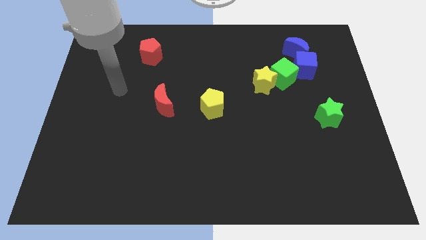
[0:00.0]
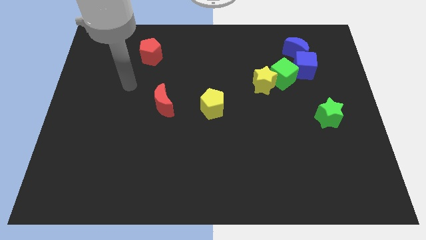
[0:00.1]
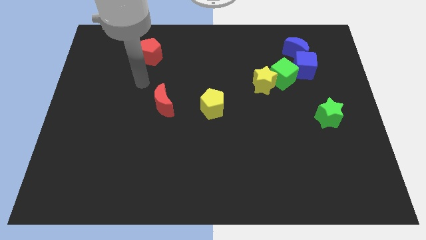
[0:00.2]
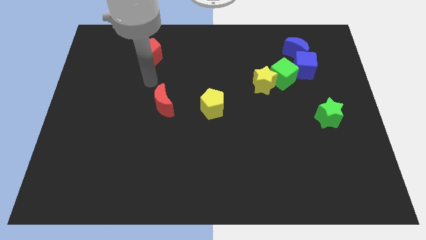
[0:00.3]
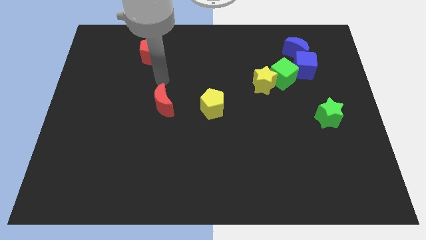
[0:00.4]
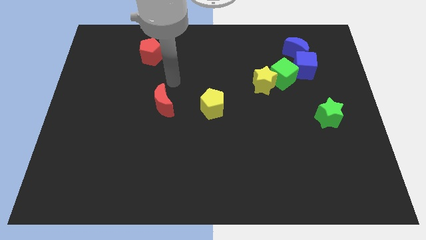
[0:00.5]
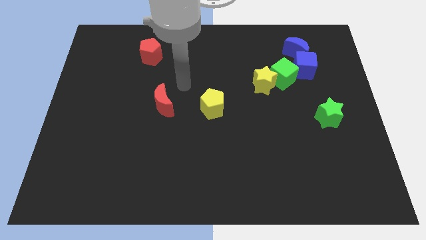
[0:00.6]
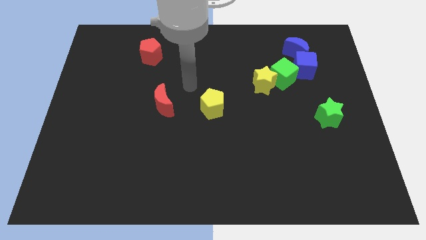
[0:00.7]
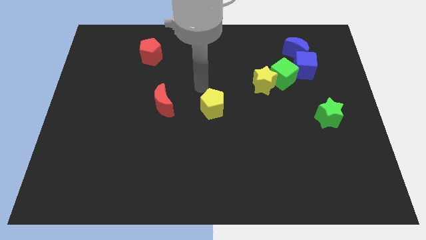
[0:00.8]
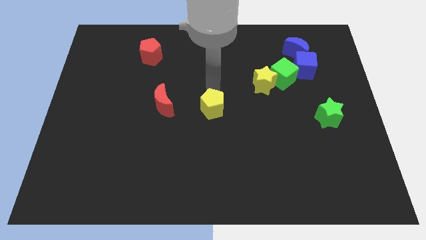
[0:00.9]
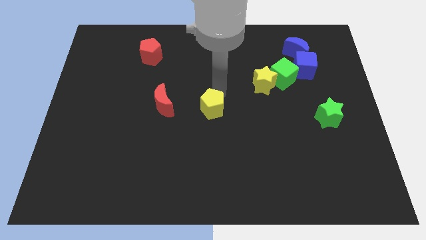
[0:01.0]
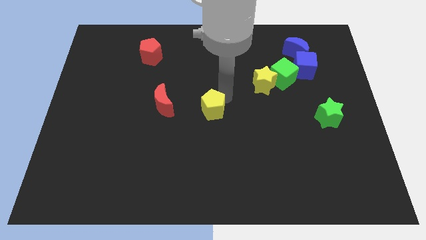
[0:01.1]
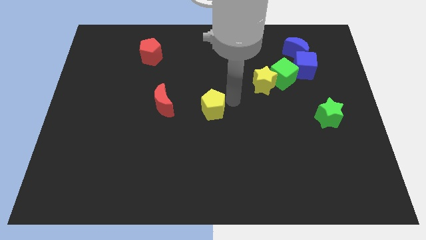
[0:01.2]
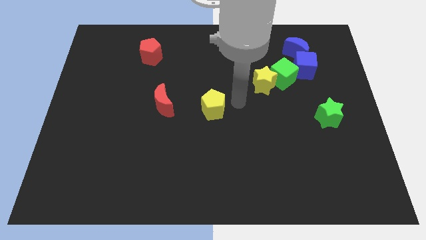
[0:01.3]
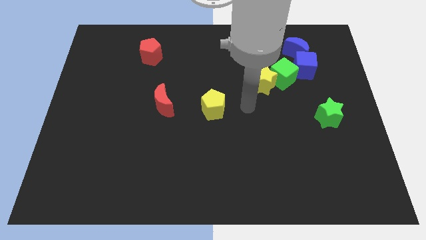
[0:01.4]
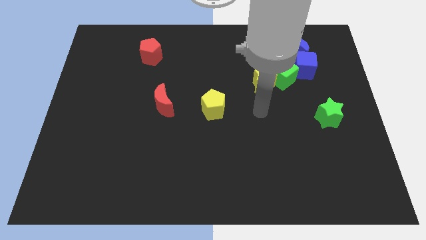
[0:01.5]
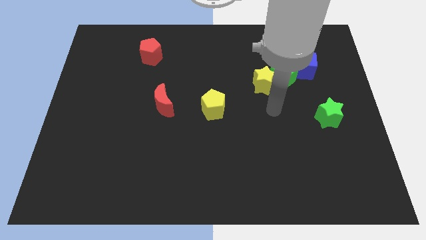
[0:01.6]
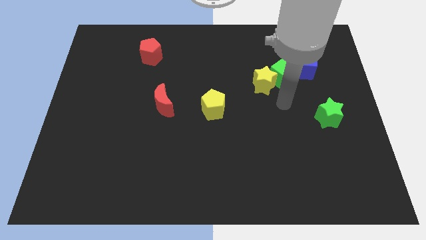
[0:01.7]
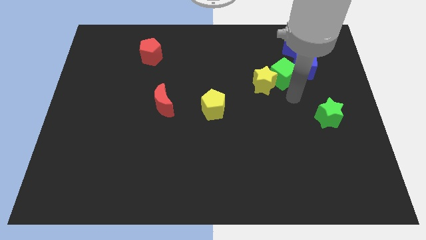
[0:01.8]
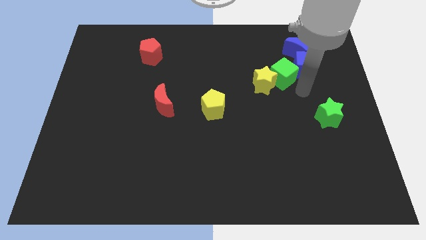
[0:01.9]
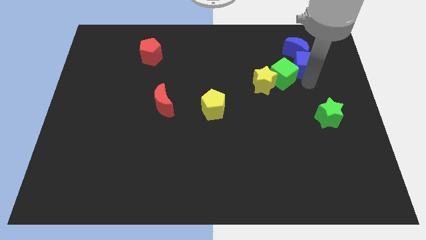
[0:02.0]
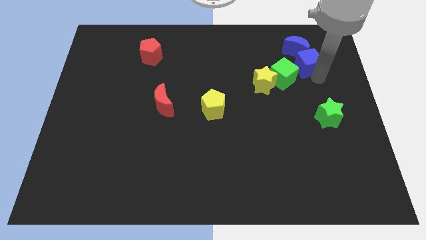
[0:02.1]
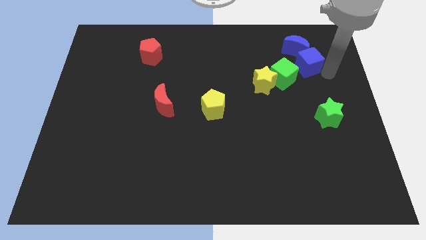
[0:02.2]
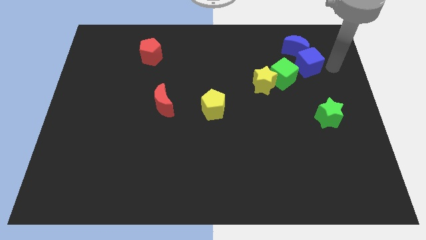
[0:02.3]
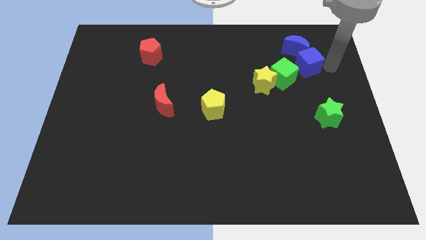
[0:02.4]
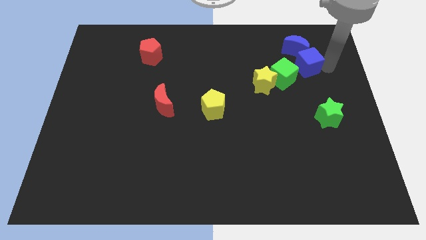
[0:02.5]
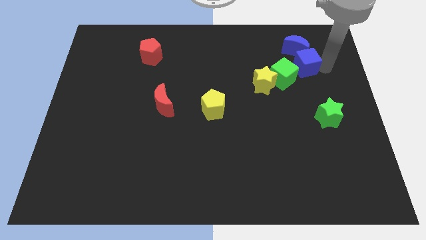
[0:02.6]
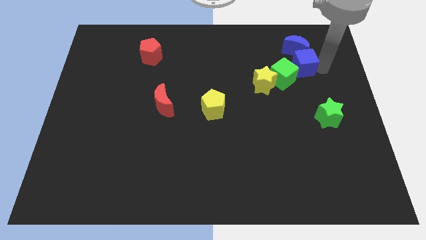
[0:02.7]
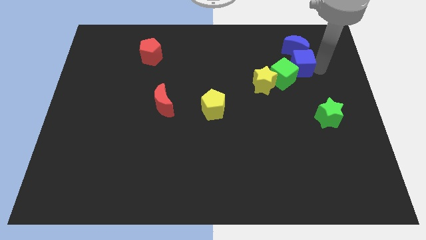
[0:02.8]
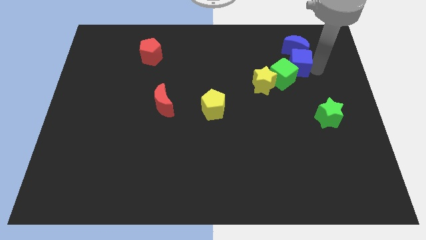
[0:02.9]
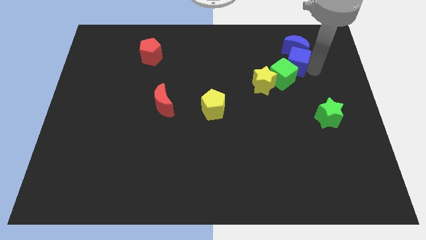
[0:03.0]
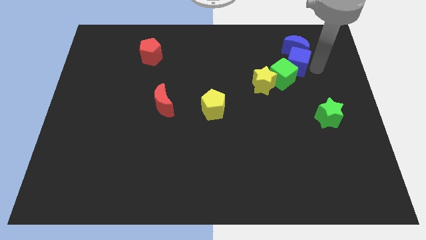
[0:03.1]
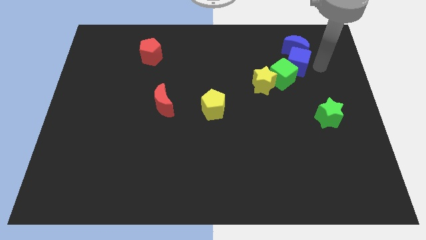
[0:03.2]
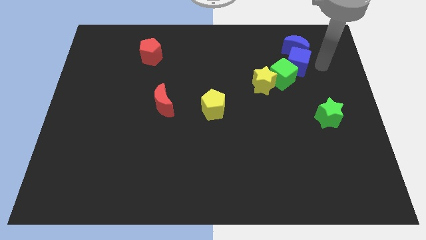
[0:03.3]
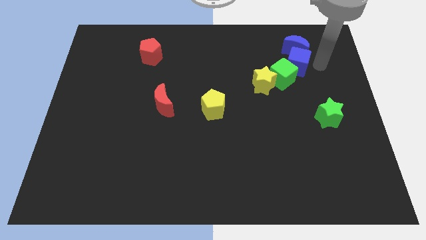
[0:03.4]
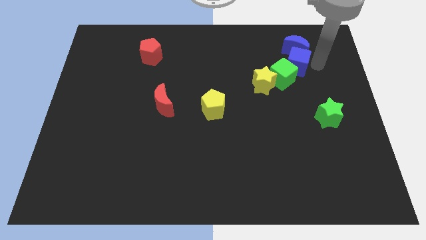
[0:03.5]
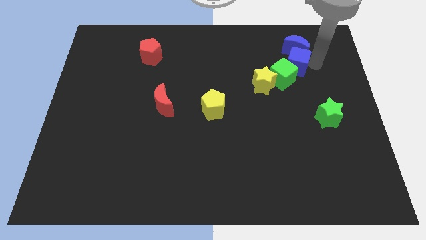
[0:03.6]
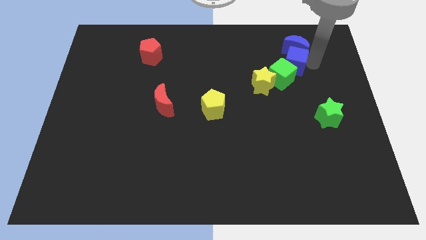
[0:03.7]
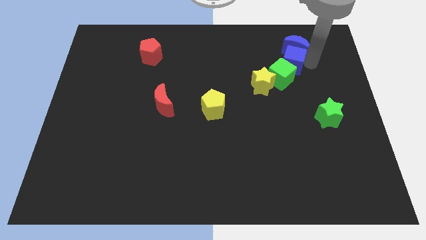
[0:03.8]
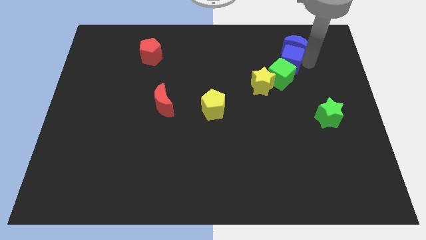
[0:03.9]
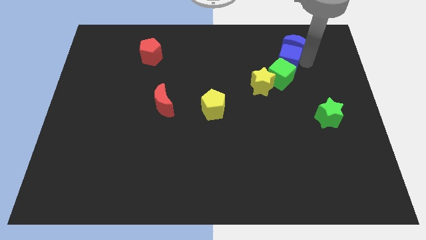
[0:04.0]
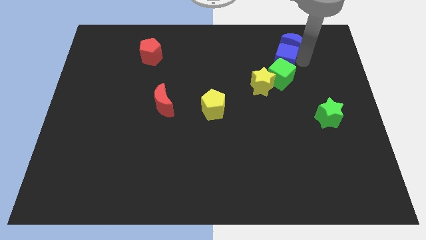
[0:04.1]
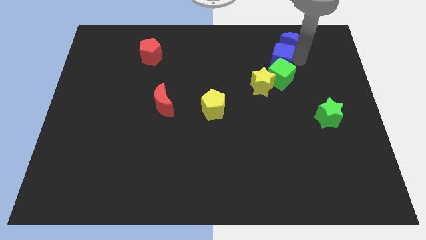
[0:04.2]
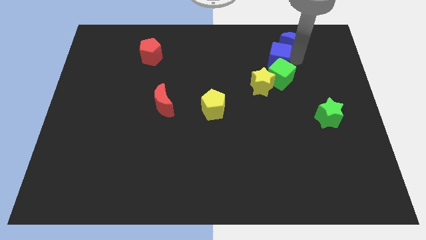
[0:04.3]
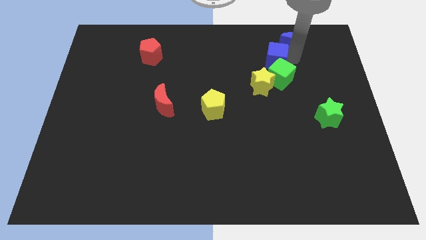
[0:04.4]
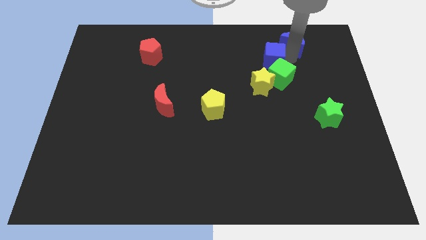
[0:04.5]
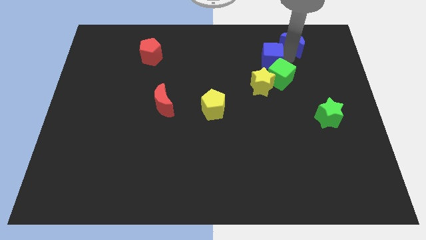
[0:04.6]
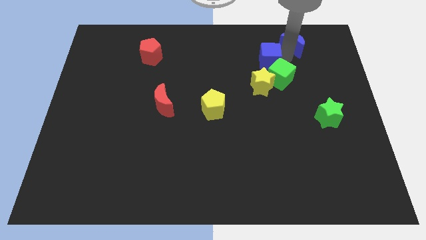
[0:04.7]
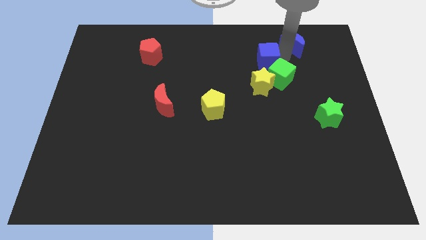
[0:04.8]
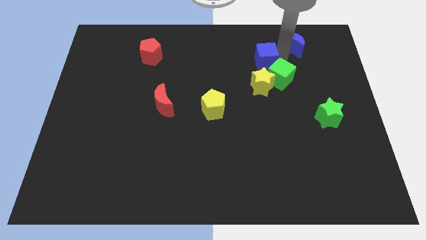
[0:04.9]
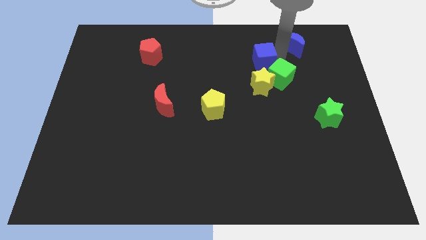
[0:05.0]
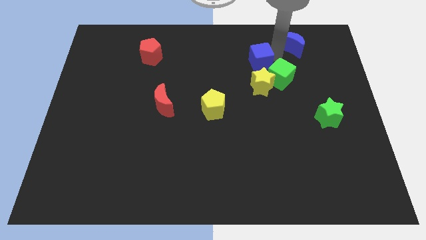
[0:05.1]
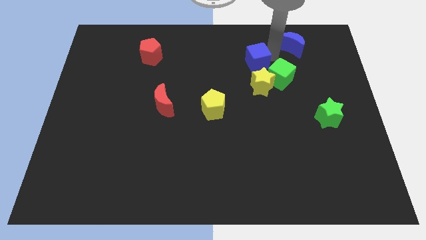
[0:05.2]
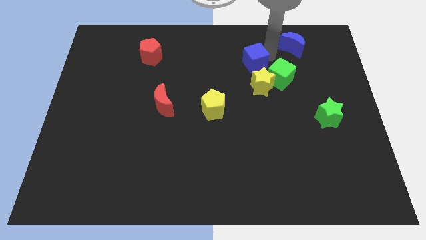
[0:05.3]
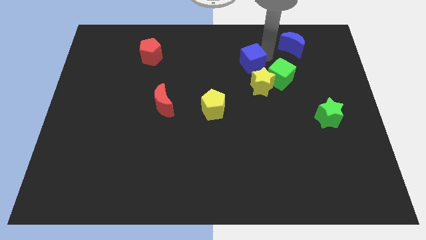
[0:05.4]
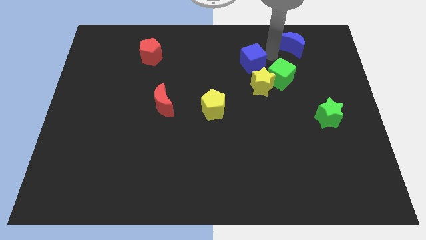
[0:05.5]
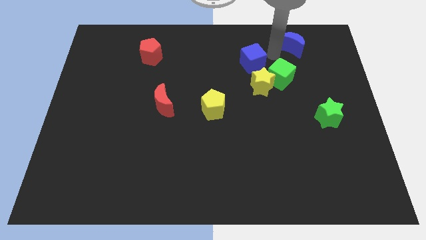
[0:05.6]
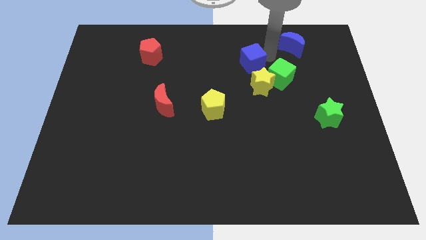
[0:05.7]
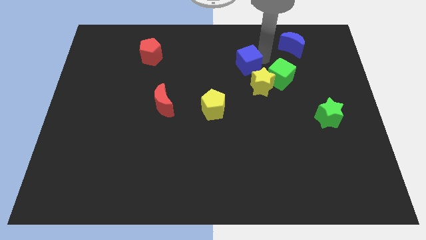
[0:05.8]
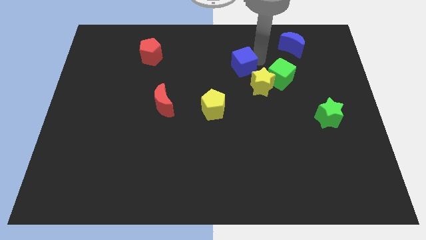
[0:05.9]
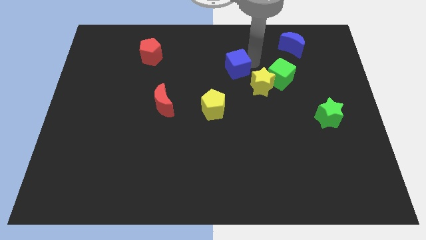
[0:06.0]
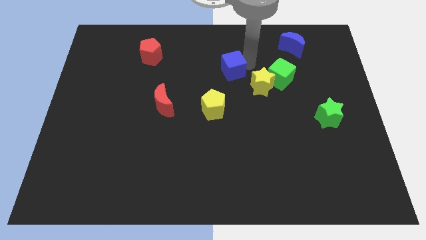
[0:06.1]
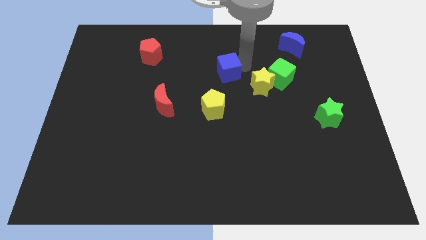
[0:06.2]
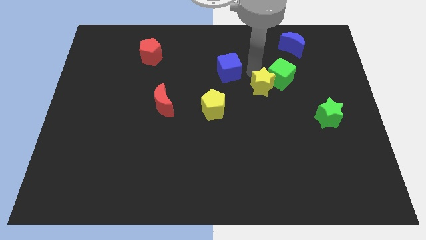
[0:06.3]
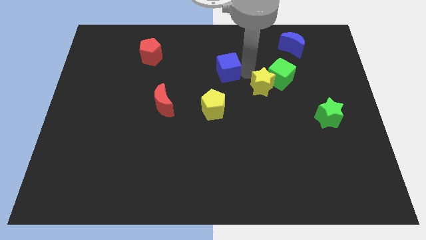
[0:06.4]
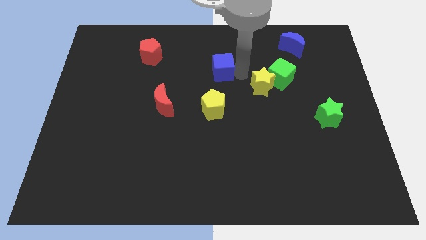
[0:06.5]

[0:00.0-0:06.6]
push the blue cube to the left

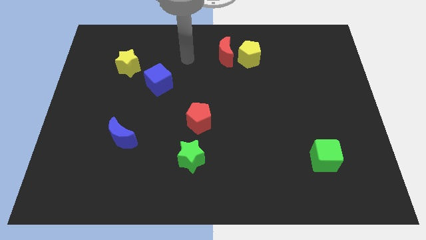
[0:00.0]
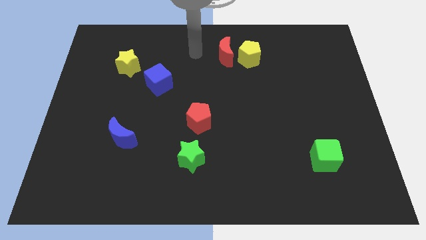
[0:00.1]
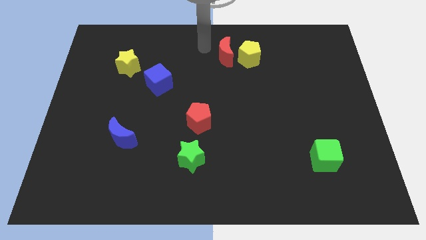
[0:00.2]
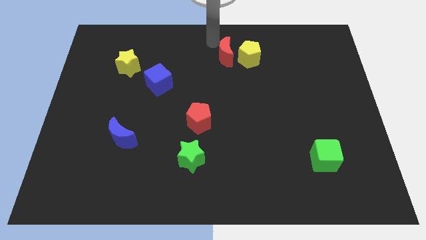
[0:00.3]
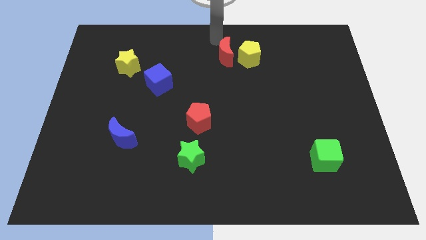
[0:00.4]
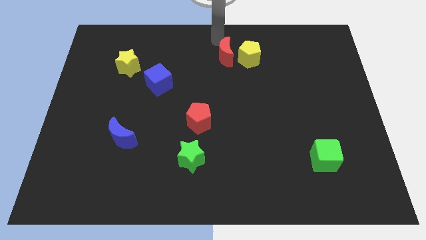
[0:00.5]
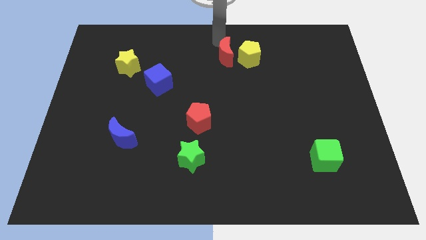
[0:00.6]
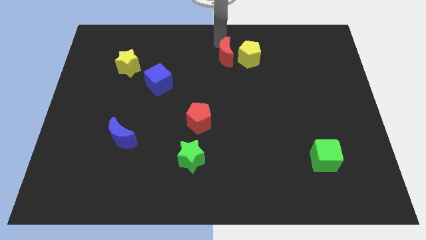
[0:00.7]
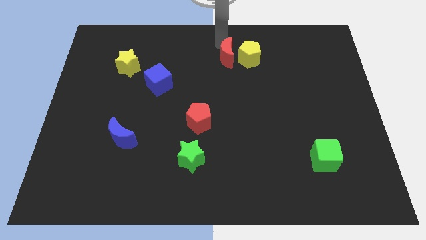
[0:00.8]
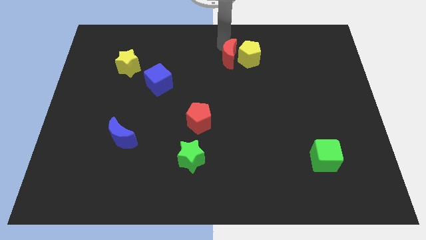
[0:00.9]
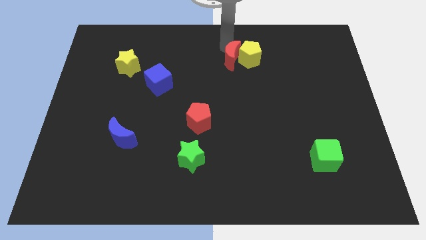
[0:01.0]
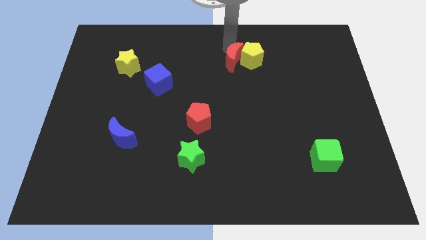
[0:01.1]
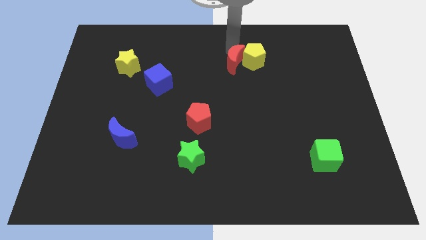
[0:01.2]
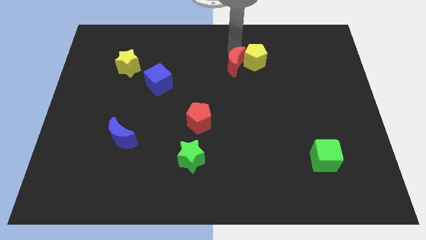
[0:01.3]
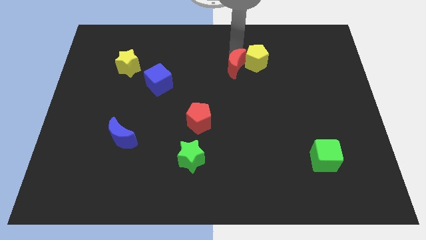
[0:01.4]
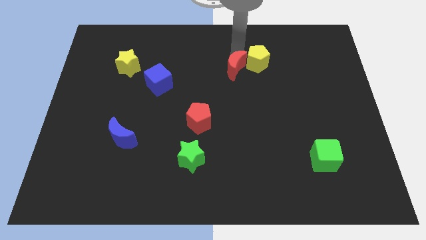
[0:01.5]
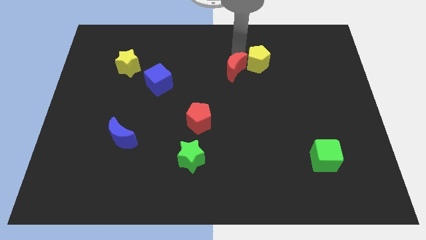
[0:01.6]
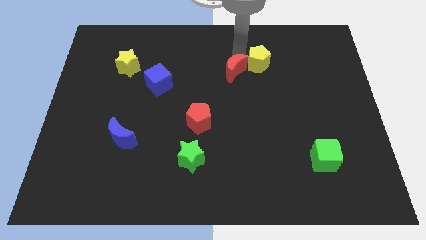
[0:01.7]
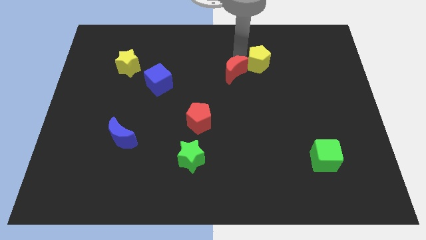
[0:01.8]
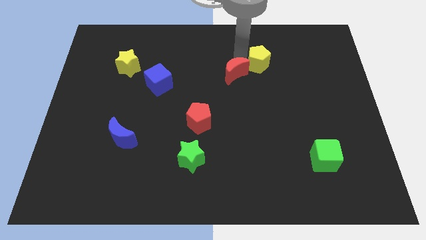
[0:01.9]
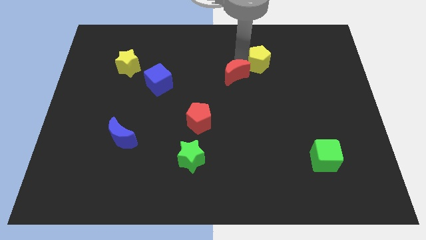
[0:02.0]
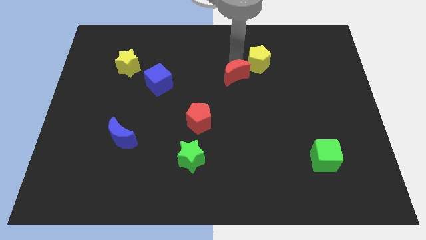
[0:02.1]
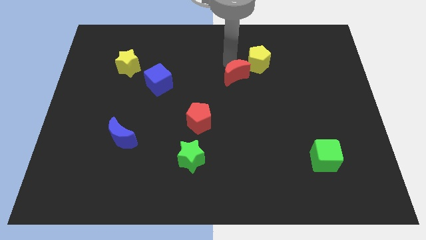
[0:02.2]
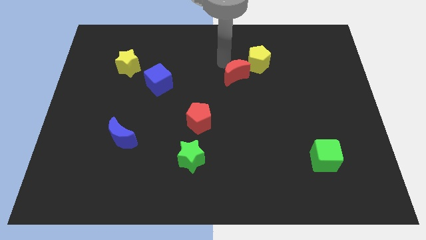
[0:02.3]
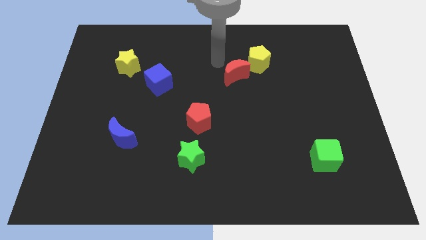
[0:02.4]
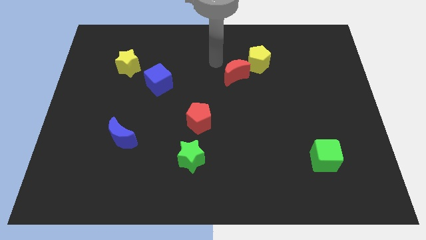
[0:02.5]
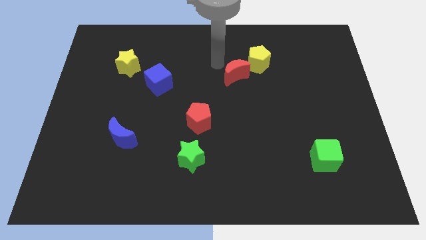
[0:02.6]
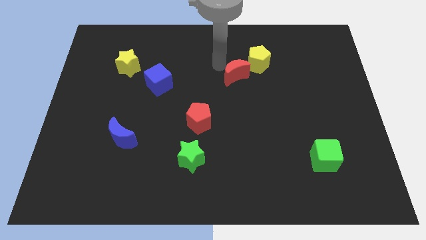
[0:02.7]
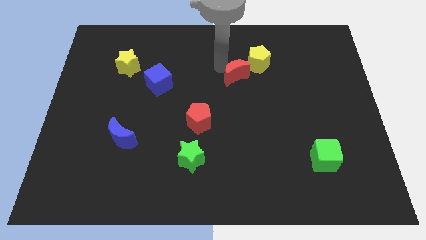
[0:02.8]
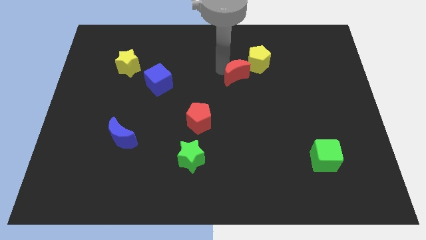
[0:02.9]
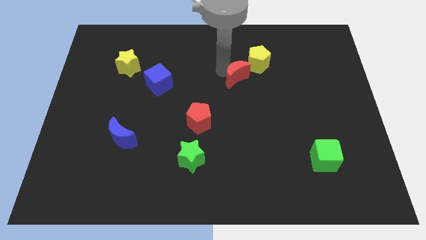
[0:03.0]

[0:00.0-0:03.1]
slightly move the red moon downwards and then right
